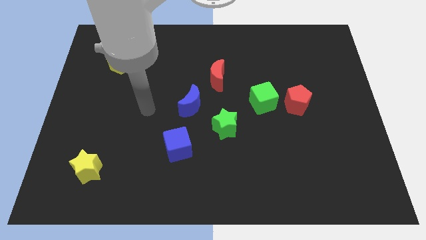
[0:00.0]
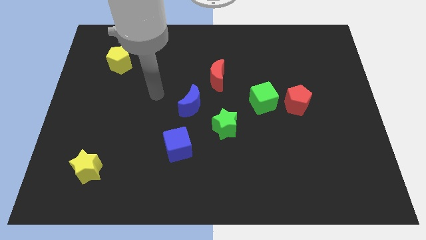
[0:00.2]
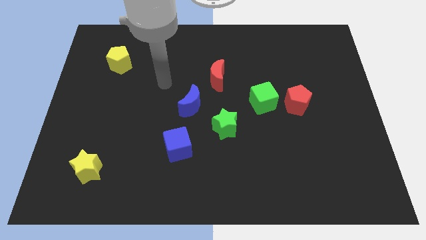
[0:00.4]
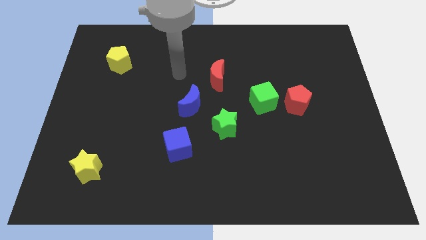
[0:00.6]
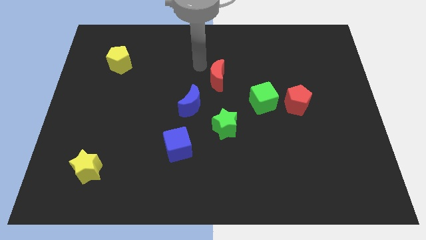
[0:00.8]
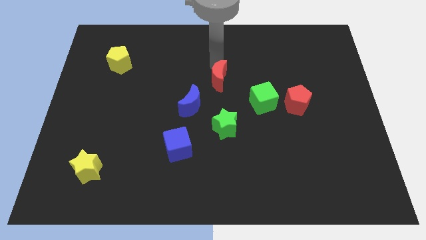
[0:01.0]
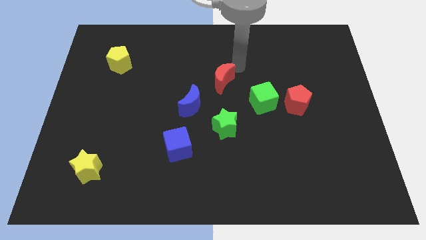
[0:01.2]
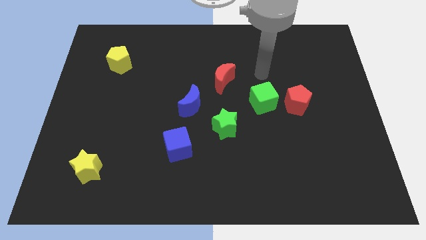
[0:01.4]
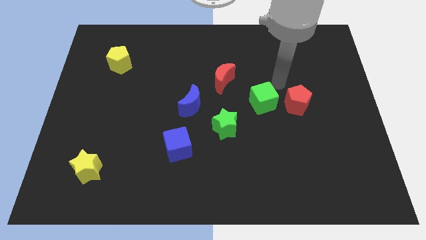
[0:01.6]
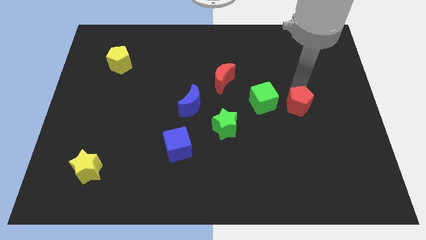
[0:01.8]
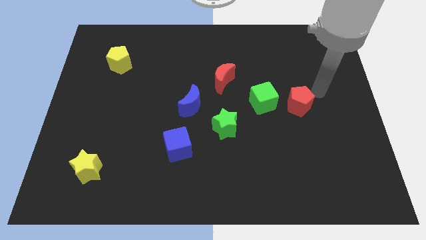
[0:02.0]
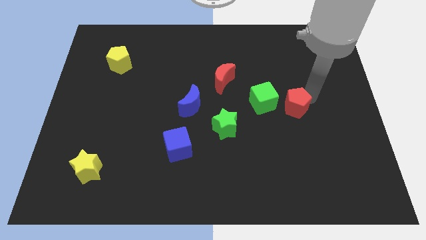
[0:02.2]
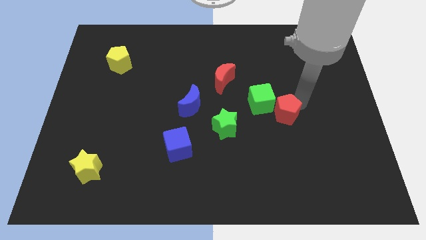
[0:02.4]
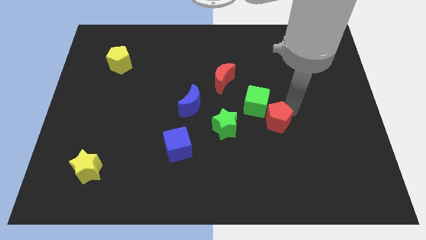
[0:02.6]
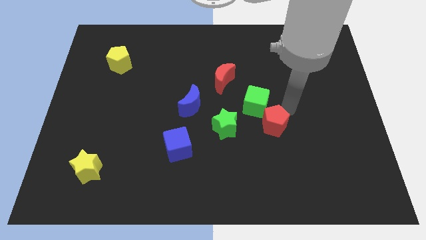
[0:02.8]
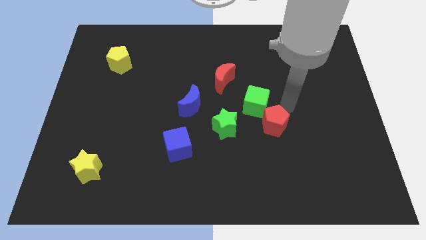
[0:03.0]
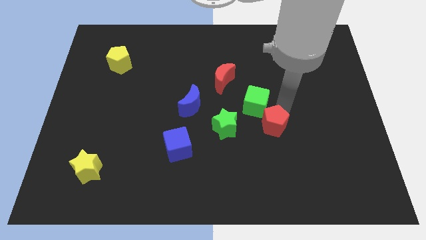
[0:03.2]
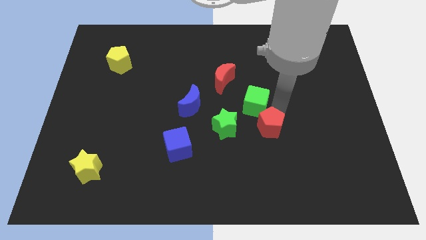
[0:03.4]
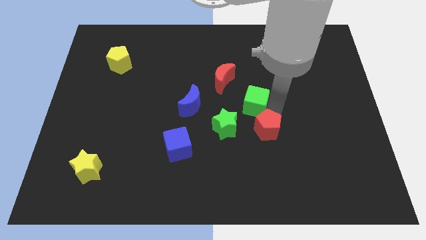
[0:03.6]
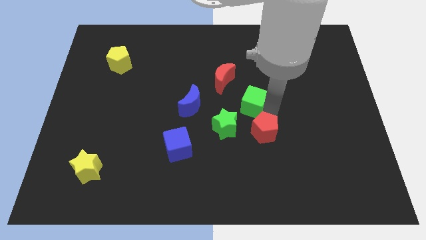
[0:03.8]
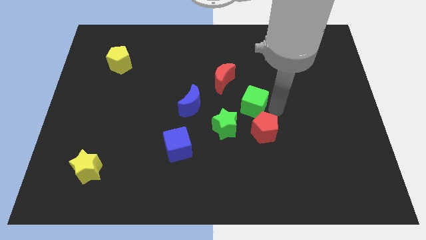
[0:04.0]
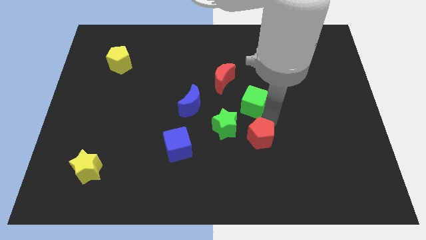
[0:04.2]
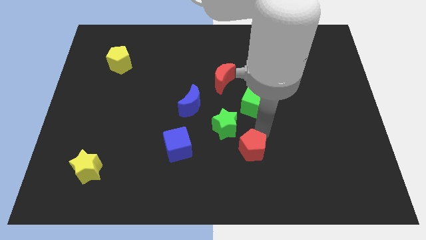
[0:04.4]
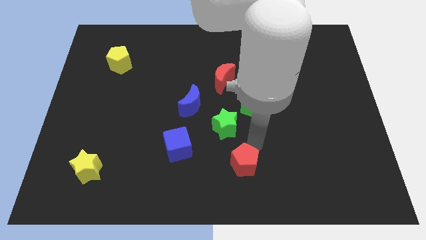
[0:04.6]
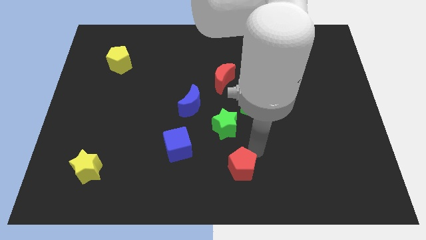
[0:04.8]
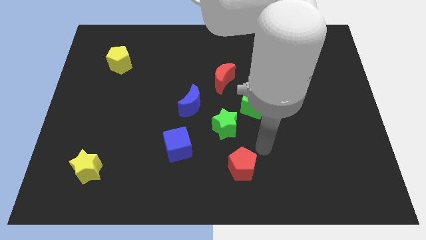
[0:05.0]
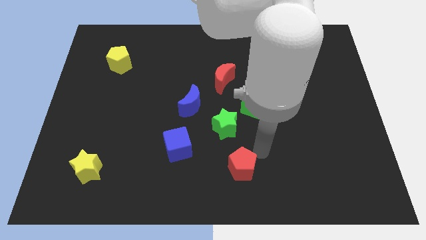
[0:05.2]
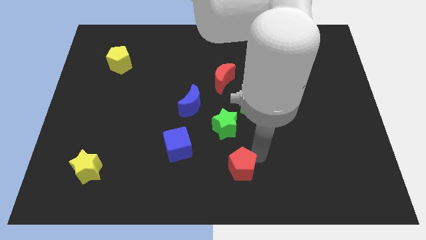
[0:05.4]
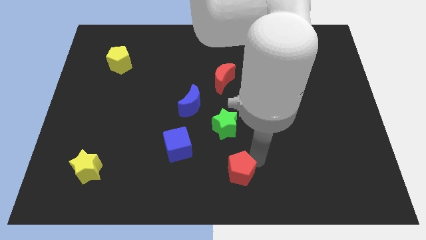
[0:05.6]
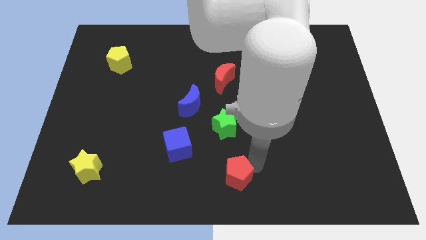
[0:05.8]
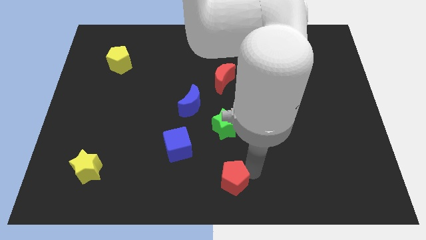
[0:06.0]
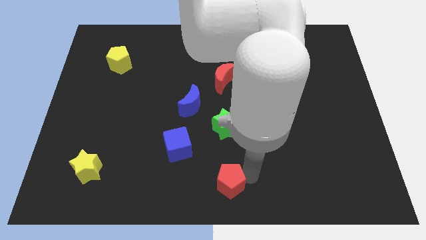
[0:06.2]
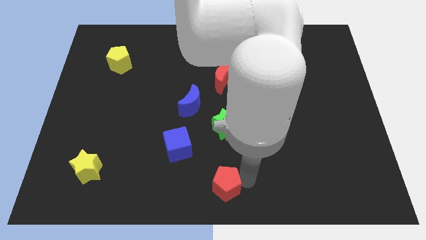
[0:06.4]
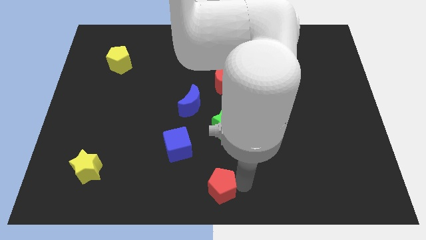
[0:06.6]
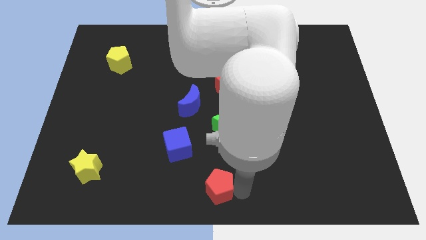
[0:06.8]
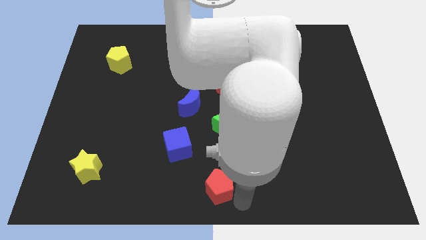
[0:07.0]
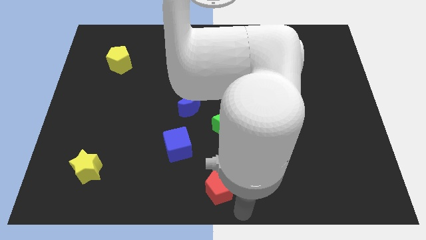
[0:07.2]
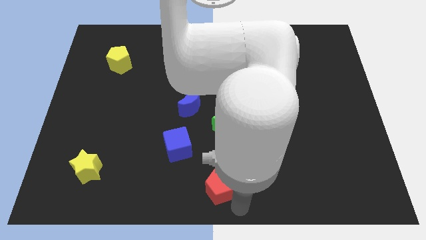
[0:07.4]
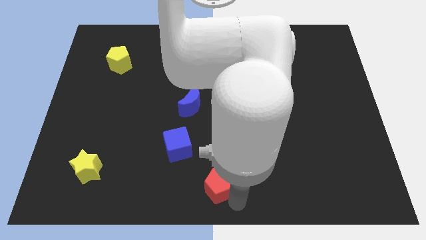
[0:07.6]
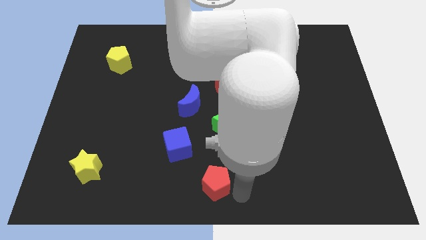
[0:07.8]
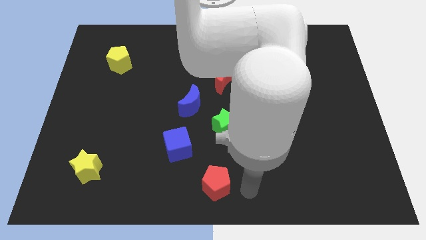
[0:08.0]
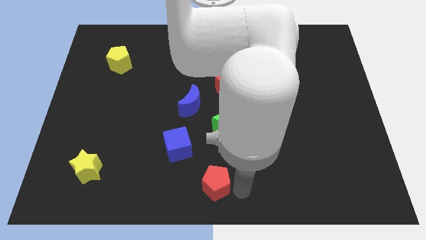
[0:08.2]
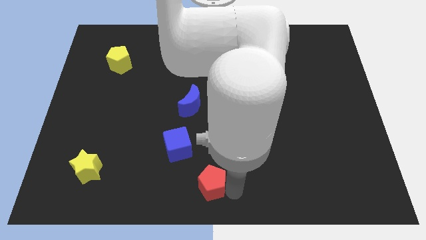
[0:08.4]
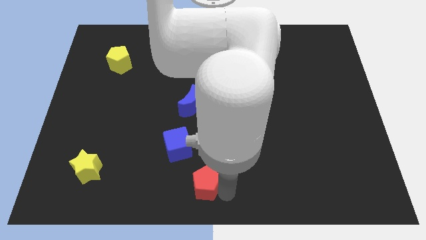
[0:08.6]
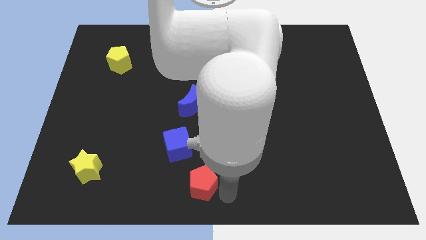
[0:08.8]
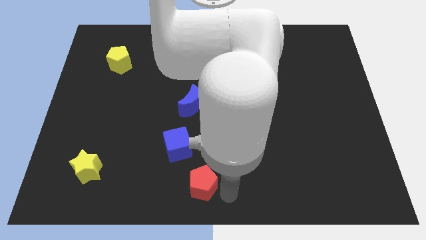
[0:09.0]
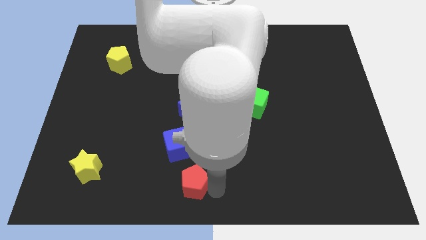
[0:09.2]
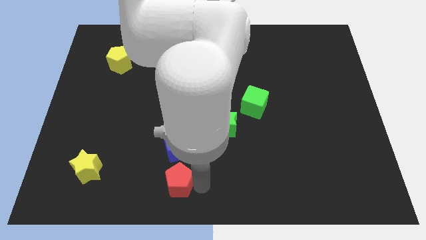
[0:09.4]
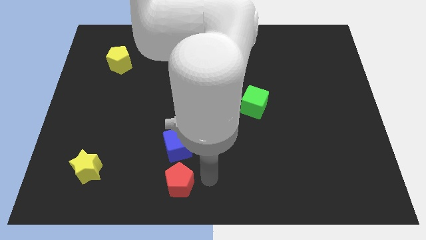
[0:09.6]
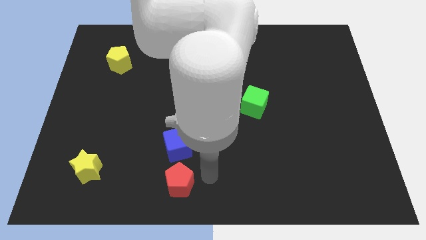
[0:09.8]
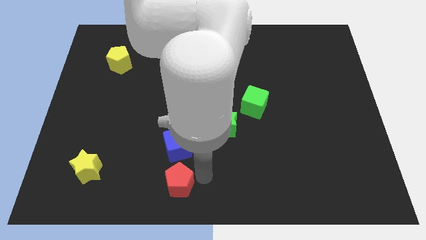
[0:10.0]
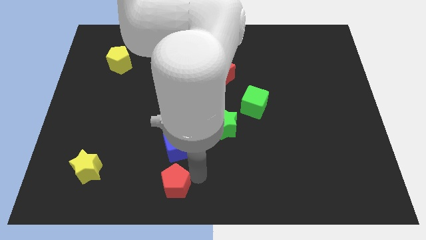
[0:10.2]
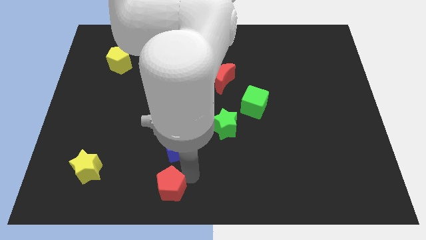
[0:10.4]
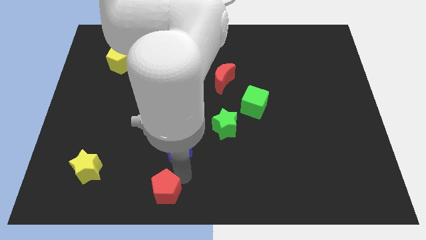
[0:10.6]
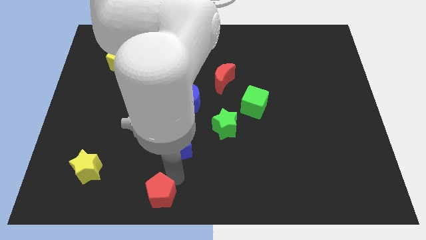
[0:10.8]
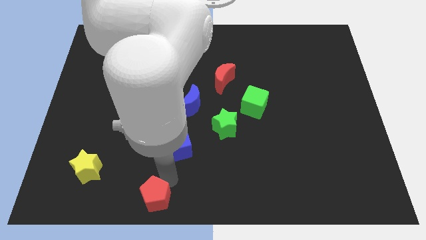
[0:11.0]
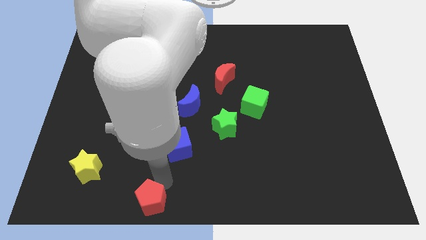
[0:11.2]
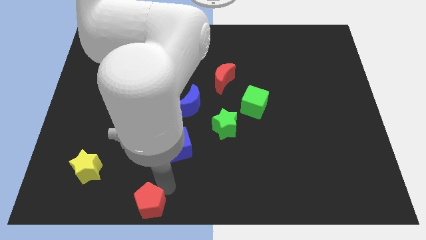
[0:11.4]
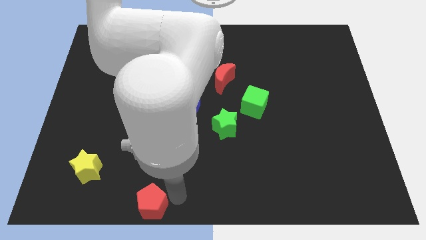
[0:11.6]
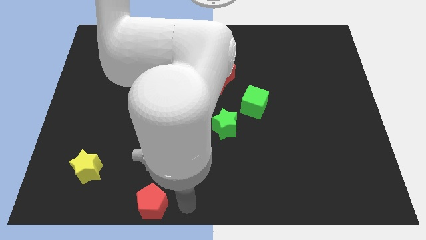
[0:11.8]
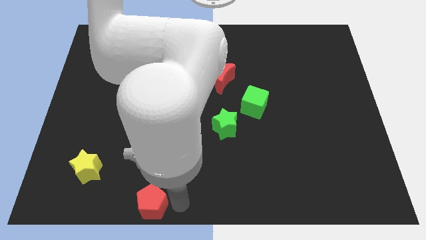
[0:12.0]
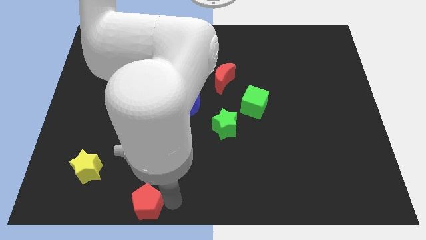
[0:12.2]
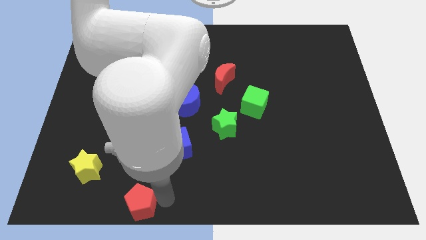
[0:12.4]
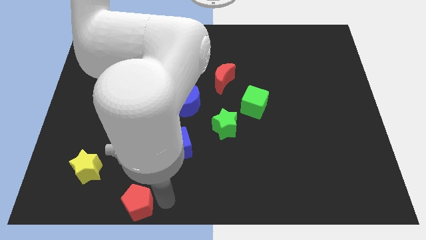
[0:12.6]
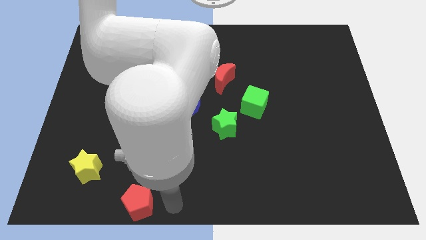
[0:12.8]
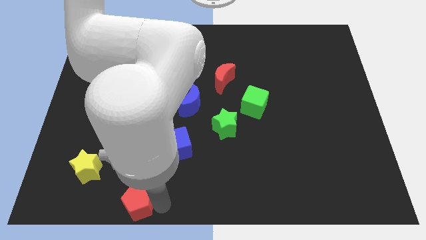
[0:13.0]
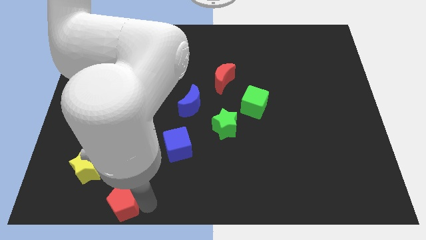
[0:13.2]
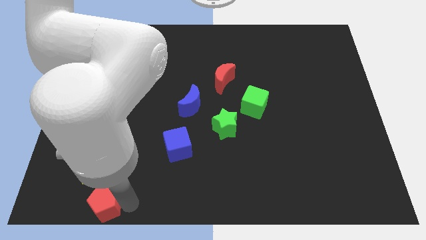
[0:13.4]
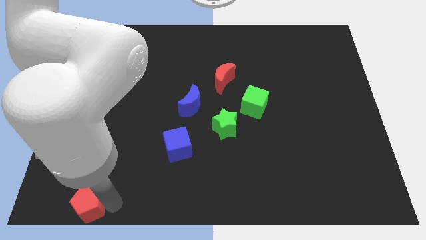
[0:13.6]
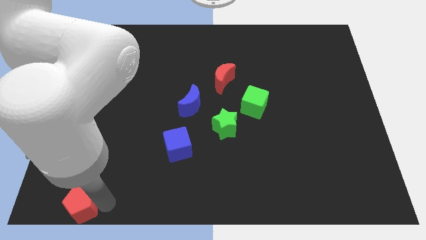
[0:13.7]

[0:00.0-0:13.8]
slide the red pentagon to the bottom left
